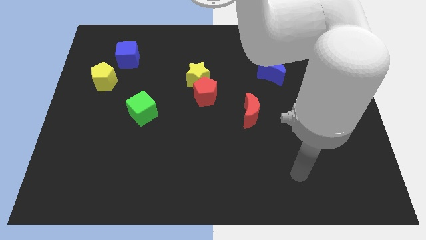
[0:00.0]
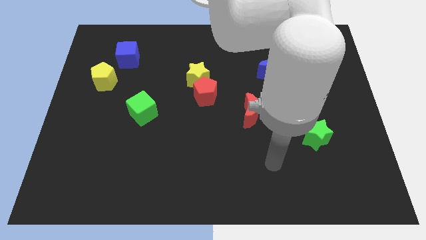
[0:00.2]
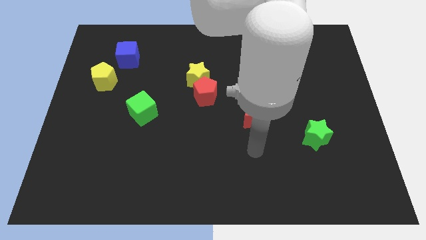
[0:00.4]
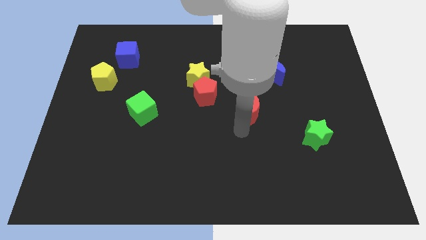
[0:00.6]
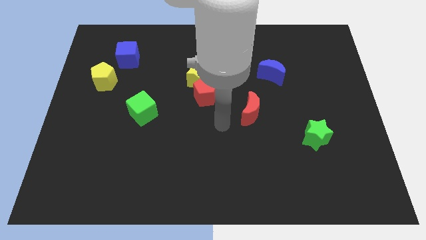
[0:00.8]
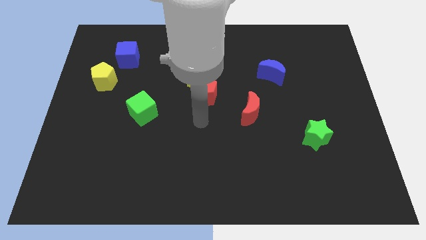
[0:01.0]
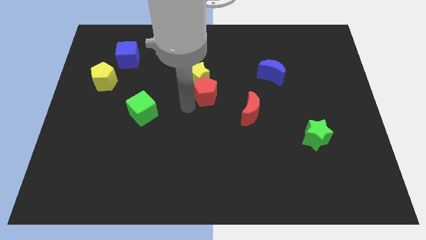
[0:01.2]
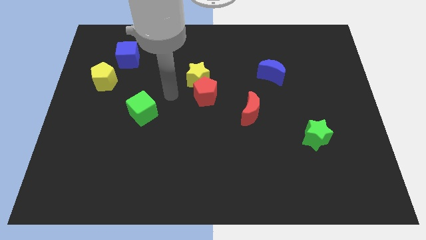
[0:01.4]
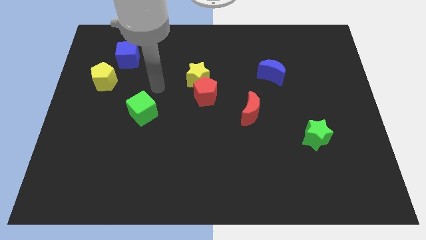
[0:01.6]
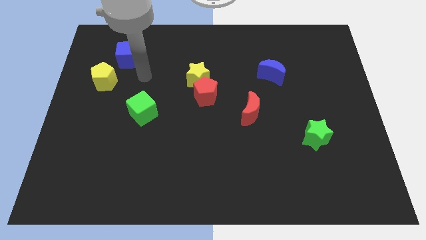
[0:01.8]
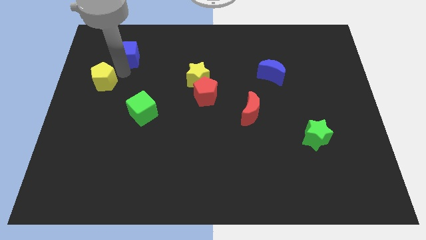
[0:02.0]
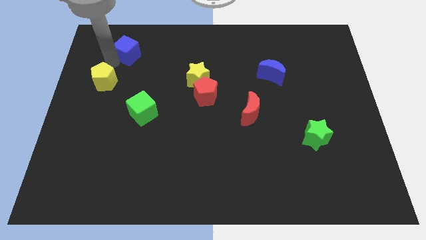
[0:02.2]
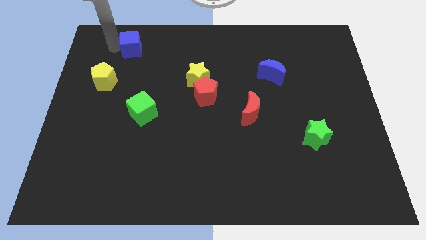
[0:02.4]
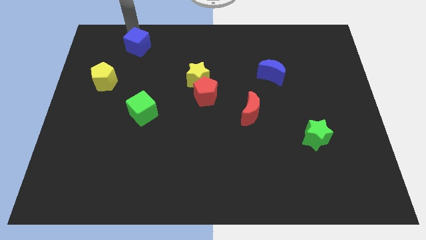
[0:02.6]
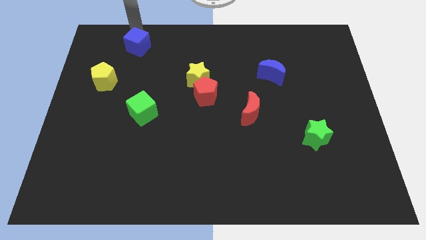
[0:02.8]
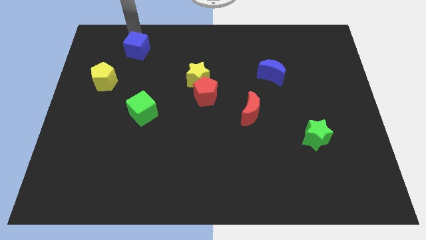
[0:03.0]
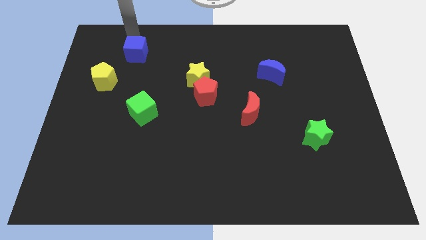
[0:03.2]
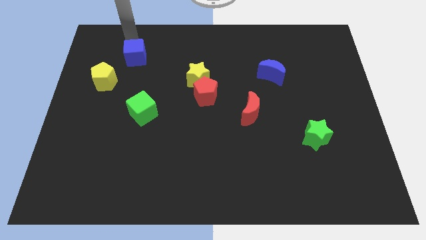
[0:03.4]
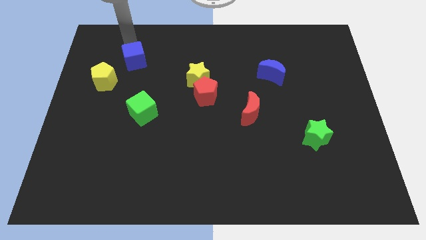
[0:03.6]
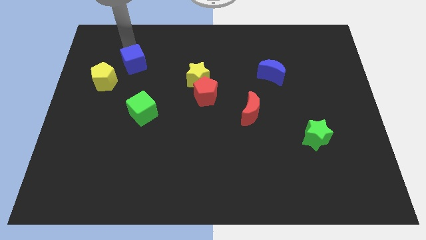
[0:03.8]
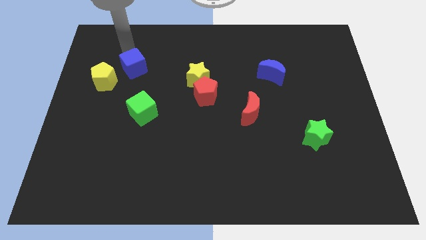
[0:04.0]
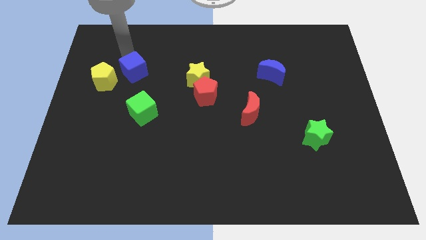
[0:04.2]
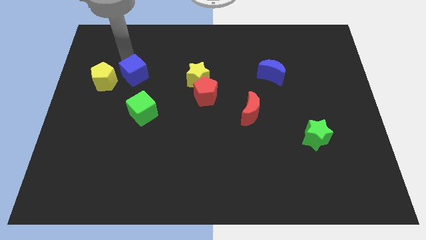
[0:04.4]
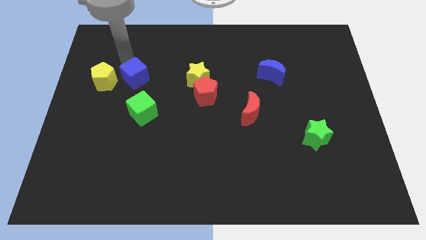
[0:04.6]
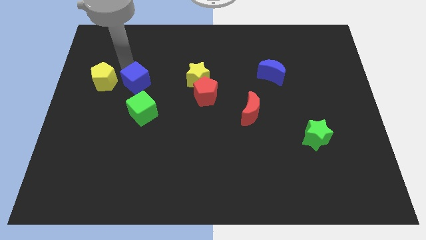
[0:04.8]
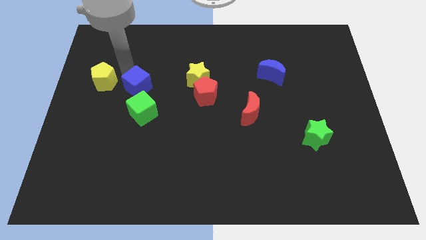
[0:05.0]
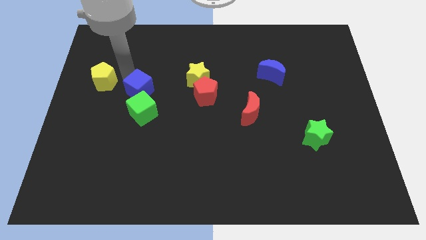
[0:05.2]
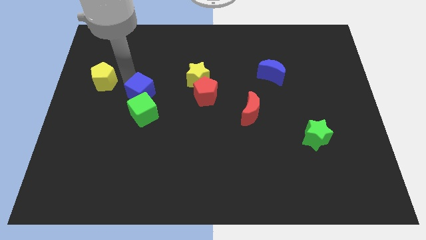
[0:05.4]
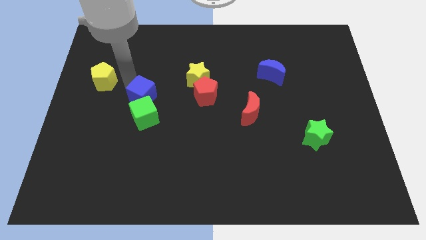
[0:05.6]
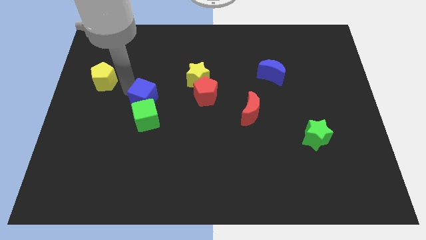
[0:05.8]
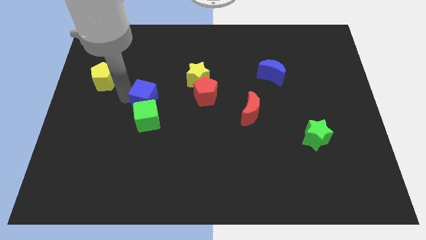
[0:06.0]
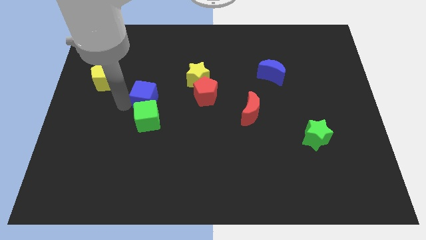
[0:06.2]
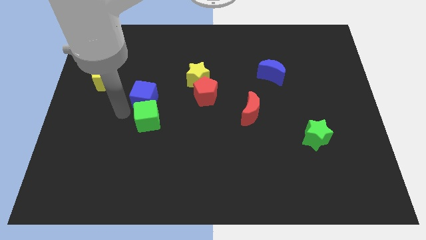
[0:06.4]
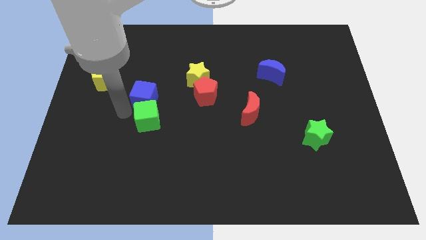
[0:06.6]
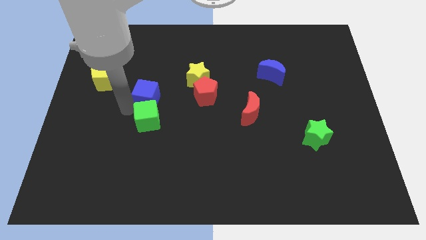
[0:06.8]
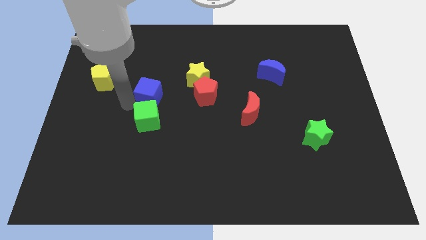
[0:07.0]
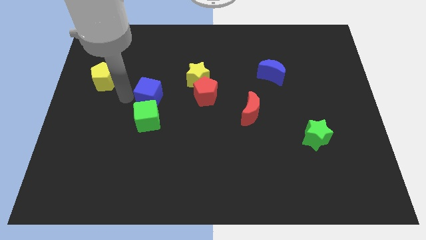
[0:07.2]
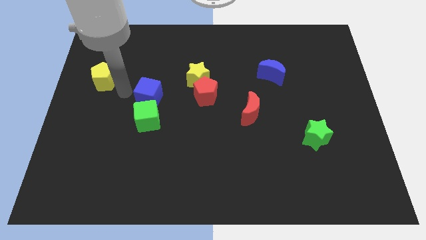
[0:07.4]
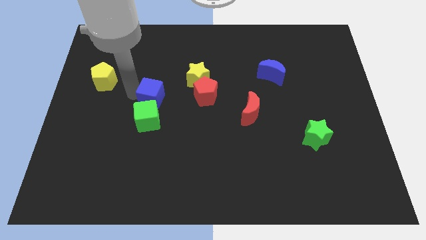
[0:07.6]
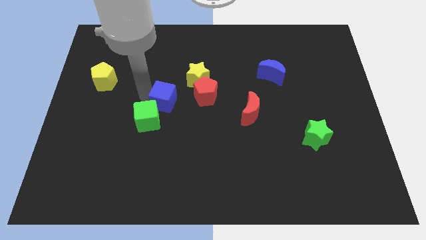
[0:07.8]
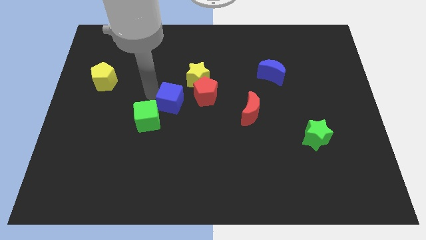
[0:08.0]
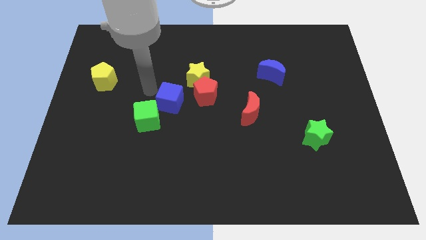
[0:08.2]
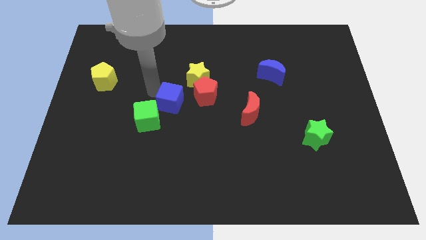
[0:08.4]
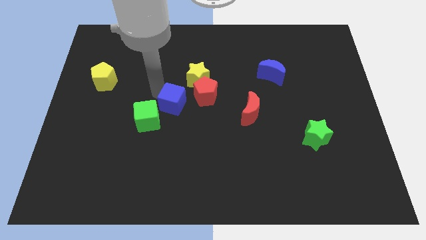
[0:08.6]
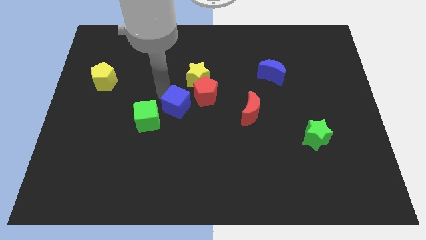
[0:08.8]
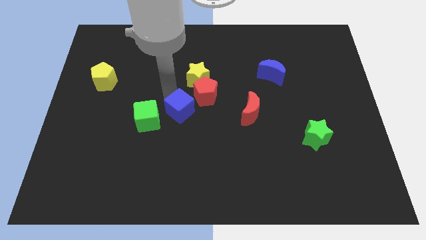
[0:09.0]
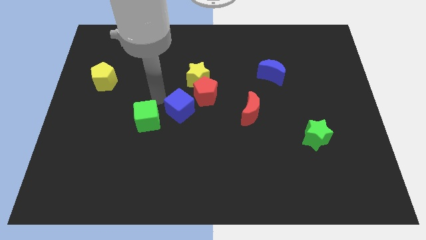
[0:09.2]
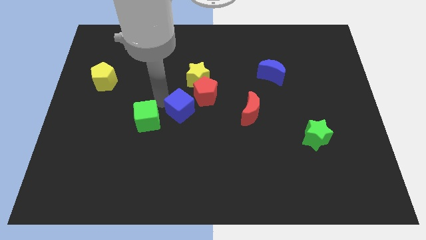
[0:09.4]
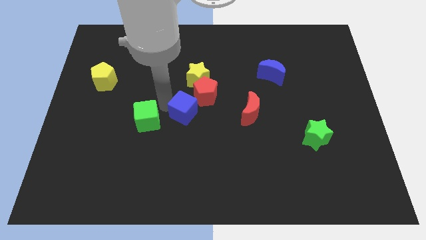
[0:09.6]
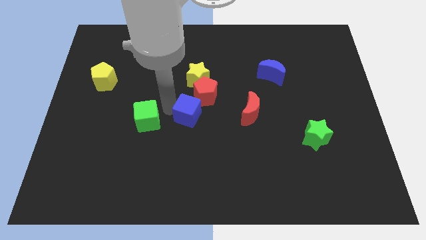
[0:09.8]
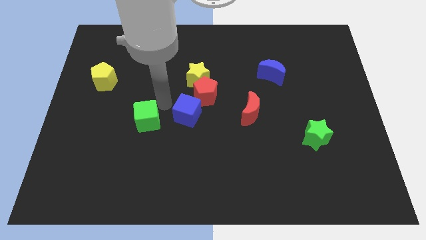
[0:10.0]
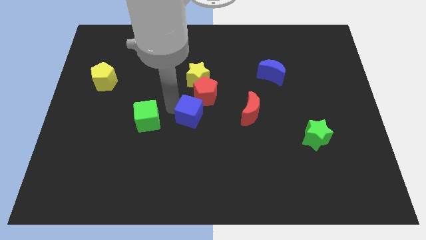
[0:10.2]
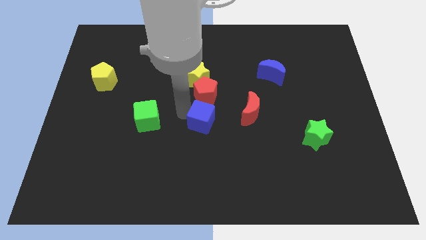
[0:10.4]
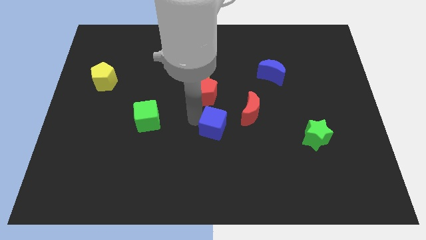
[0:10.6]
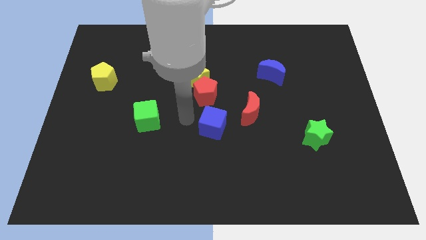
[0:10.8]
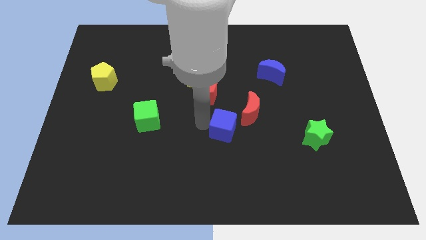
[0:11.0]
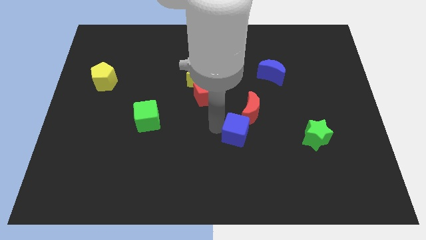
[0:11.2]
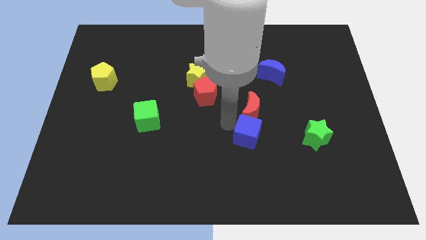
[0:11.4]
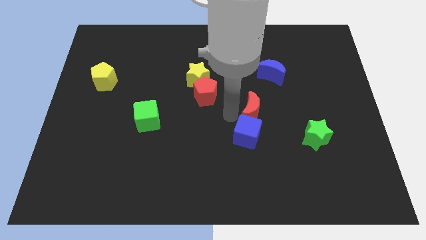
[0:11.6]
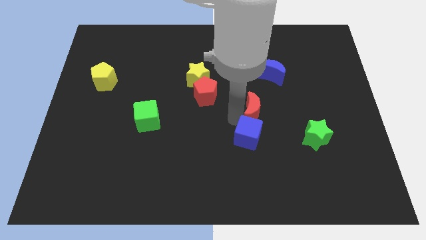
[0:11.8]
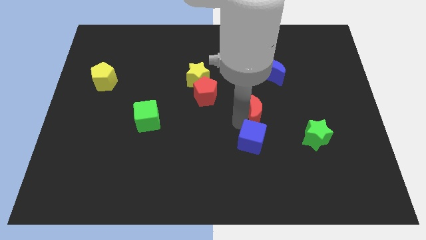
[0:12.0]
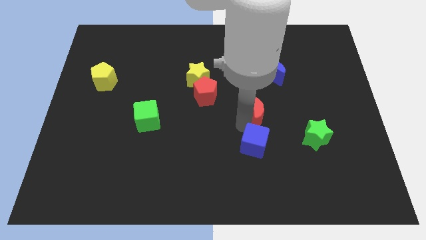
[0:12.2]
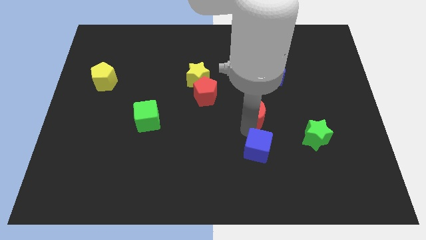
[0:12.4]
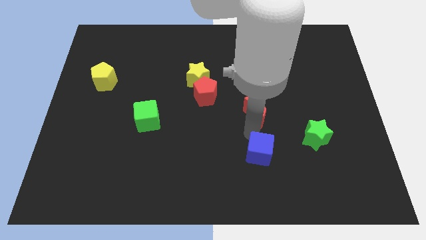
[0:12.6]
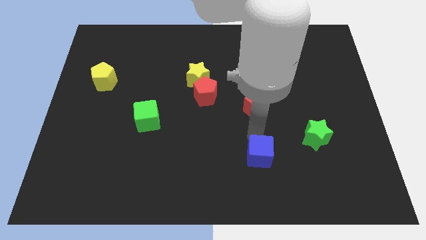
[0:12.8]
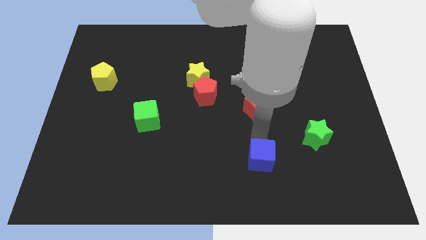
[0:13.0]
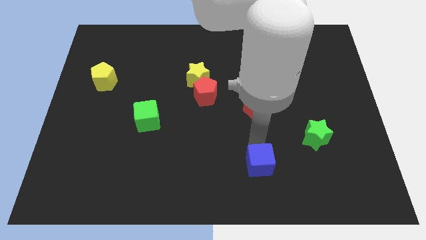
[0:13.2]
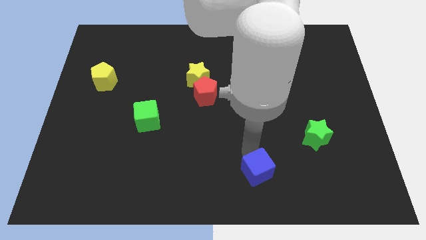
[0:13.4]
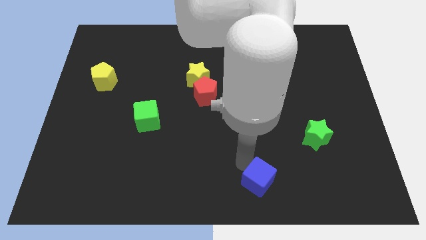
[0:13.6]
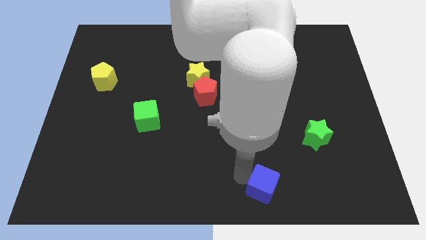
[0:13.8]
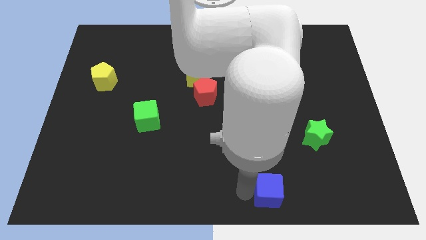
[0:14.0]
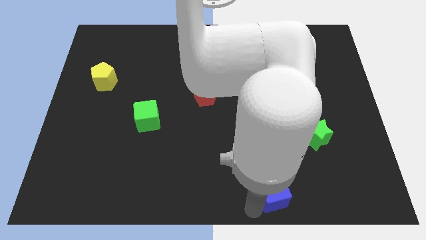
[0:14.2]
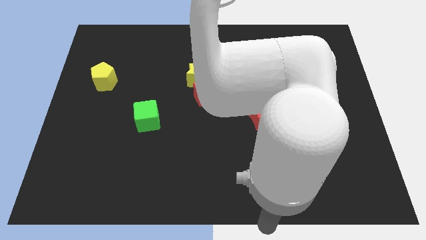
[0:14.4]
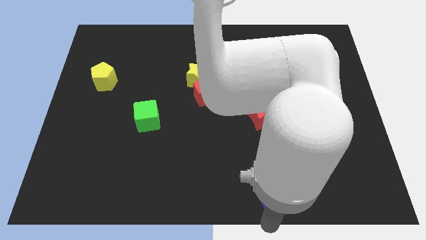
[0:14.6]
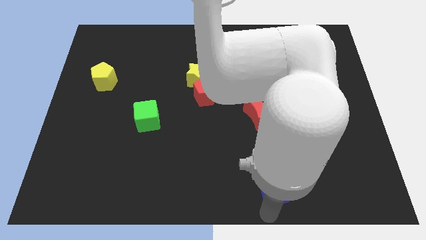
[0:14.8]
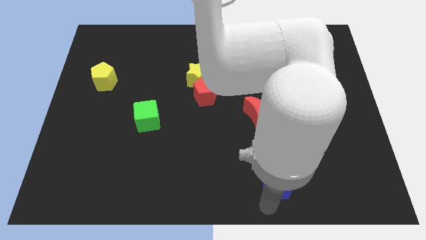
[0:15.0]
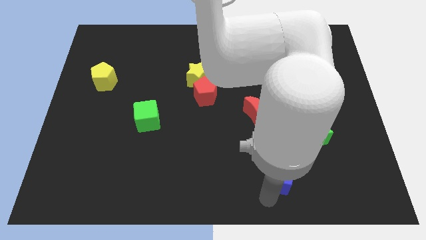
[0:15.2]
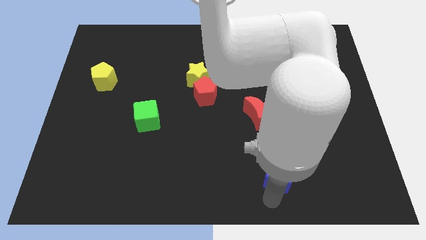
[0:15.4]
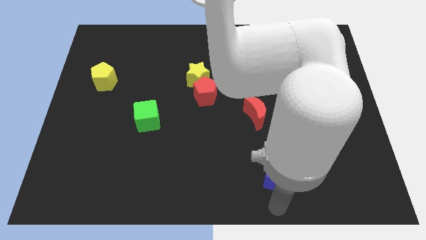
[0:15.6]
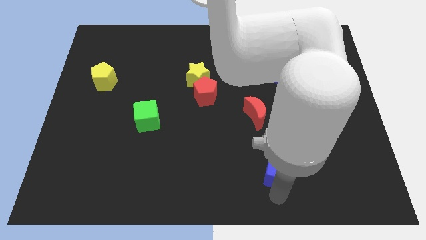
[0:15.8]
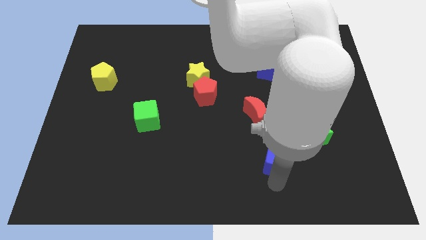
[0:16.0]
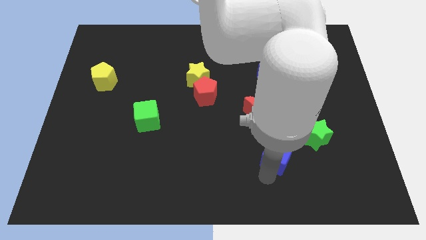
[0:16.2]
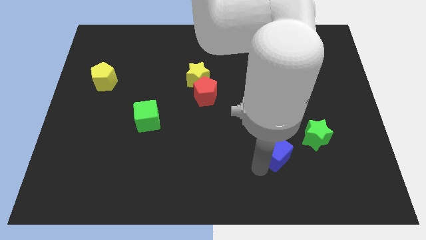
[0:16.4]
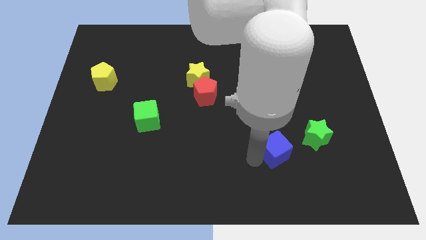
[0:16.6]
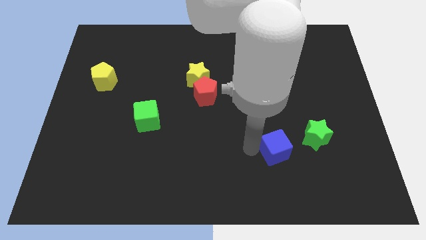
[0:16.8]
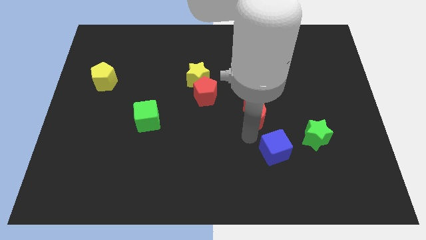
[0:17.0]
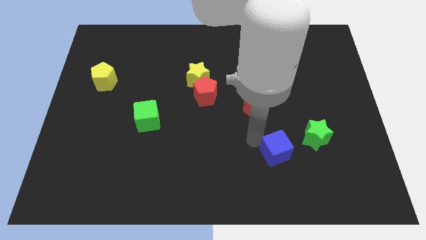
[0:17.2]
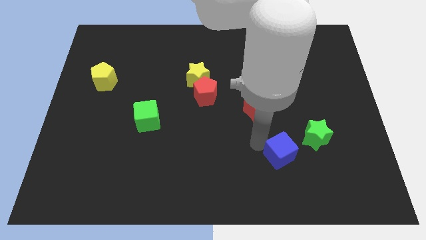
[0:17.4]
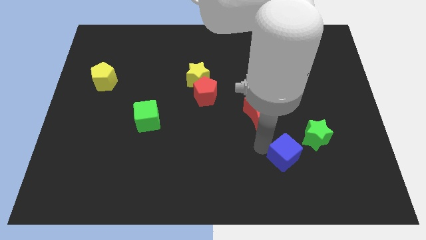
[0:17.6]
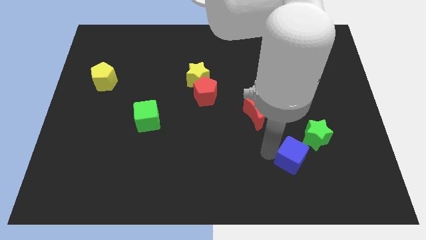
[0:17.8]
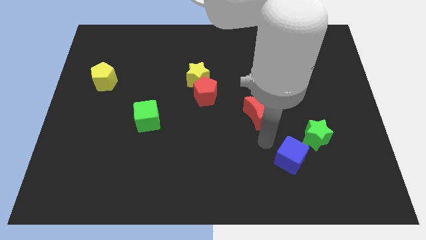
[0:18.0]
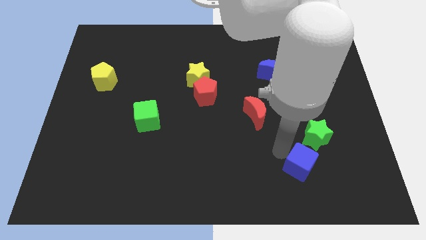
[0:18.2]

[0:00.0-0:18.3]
slide the blue cube to the bottom side of the green star
